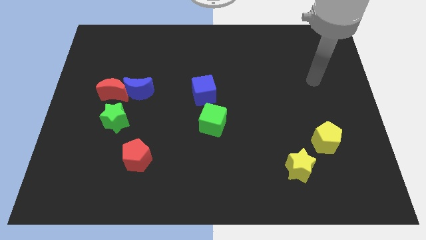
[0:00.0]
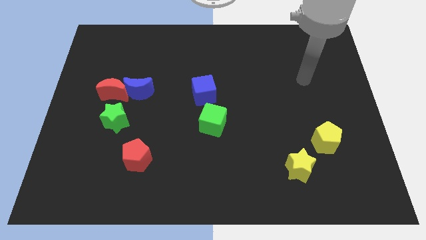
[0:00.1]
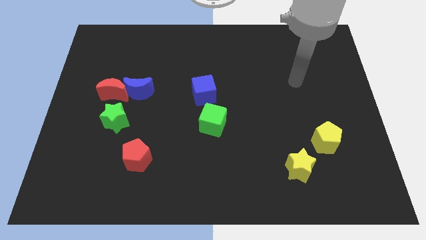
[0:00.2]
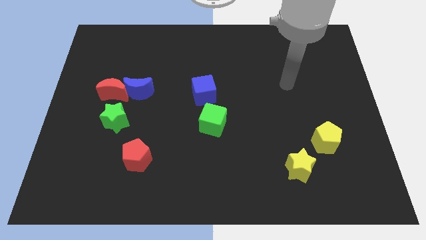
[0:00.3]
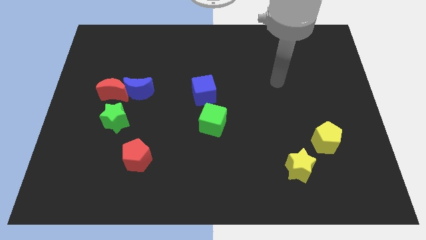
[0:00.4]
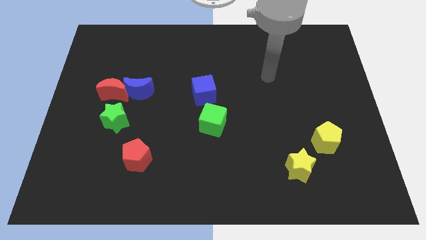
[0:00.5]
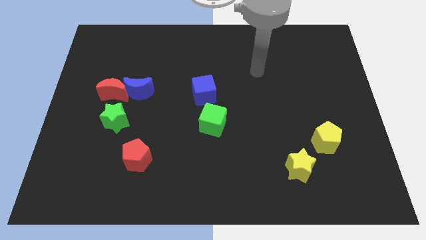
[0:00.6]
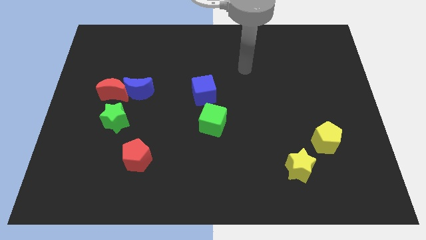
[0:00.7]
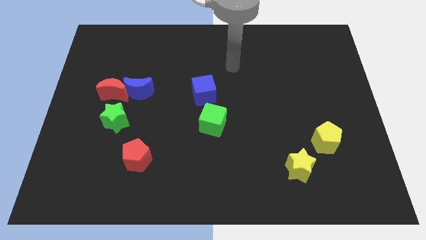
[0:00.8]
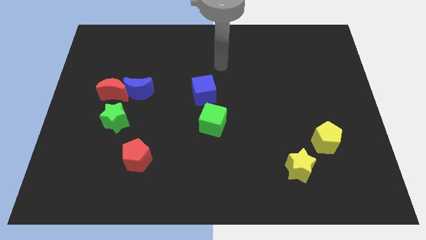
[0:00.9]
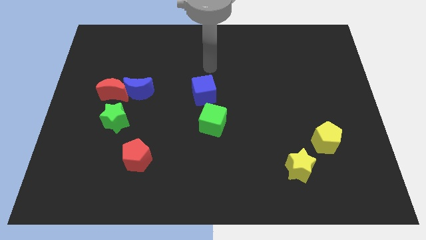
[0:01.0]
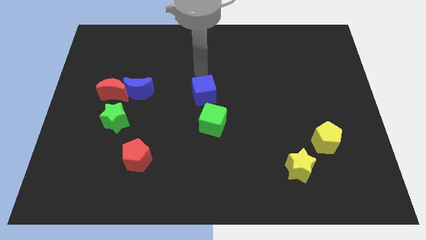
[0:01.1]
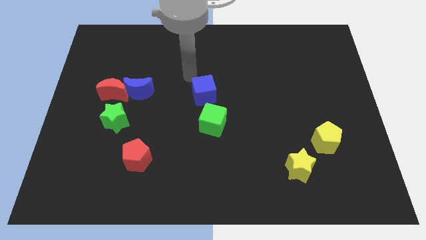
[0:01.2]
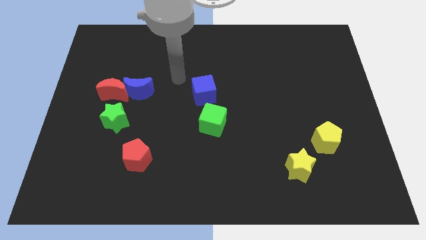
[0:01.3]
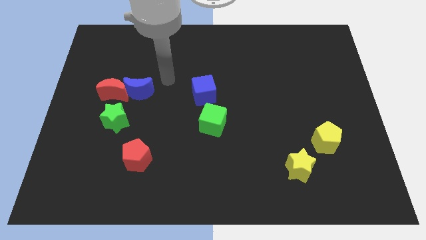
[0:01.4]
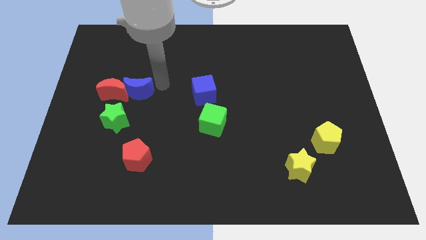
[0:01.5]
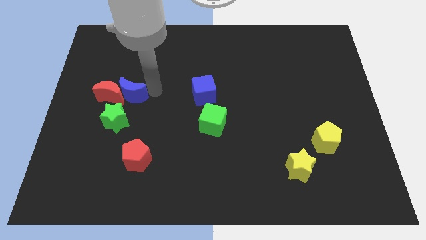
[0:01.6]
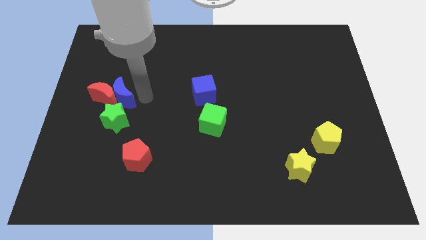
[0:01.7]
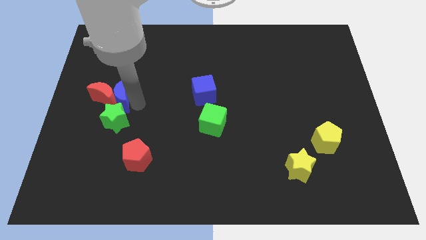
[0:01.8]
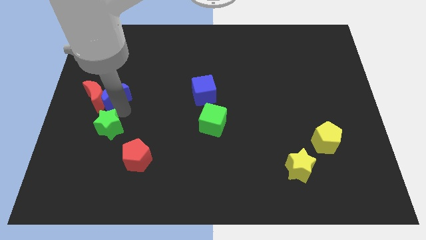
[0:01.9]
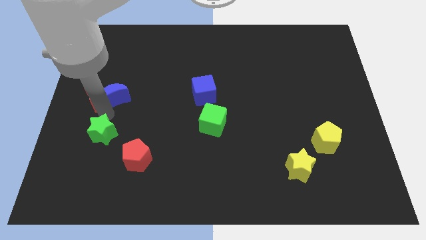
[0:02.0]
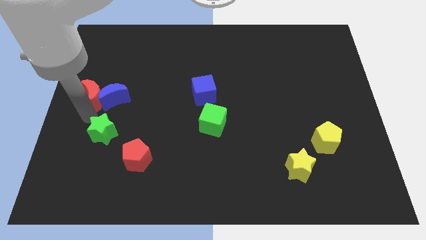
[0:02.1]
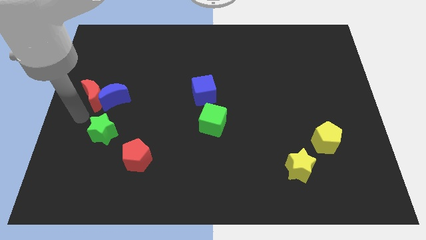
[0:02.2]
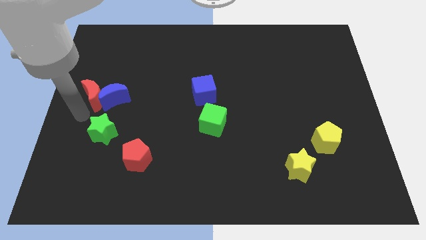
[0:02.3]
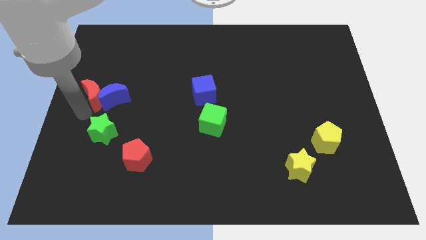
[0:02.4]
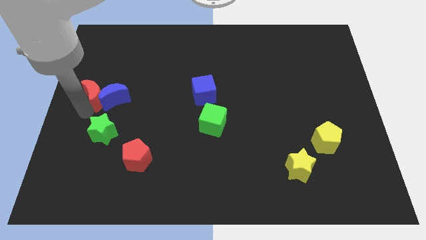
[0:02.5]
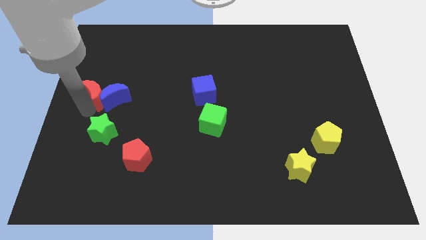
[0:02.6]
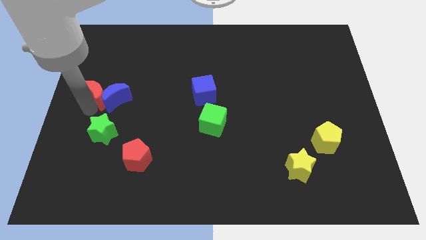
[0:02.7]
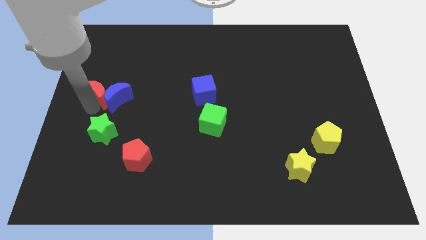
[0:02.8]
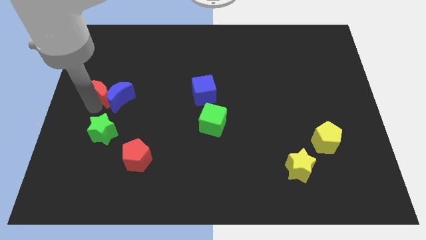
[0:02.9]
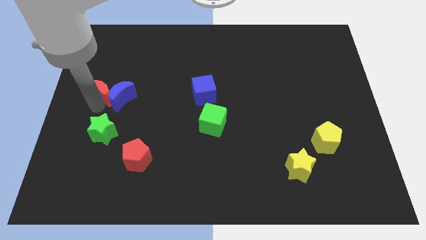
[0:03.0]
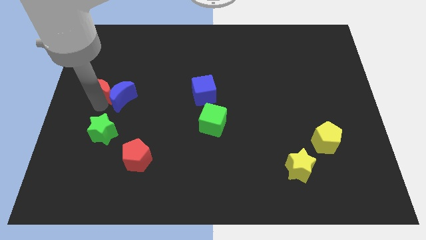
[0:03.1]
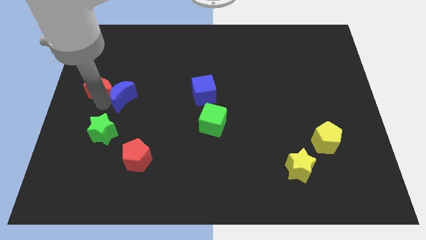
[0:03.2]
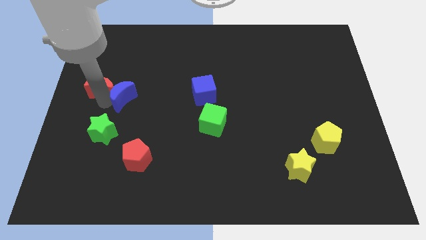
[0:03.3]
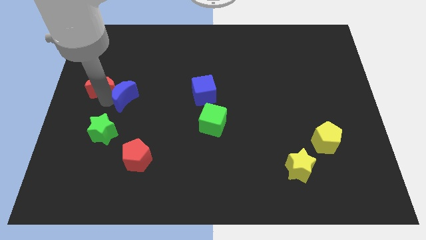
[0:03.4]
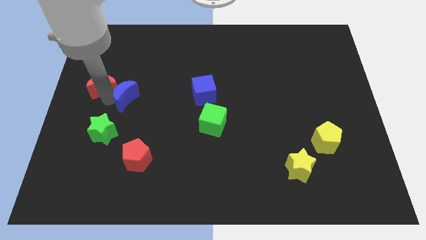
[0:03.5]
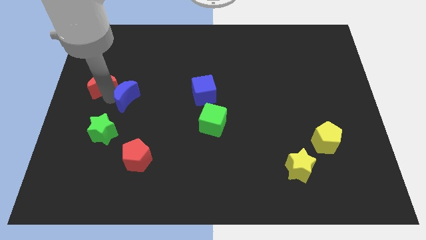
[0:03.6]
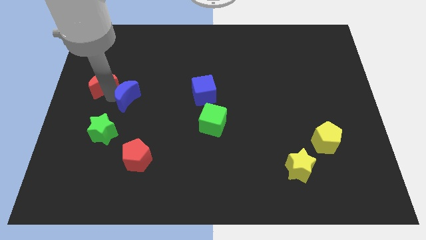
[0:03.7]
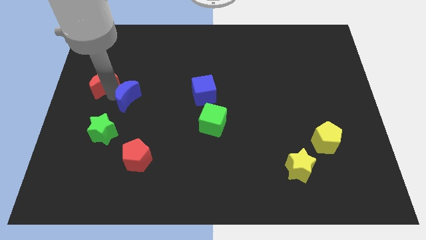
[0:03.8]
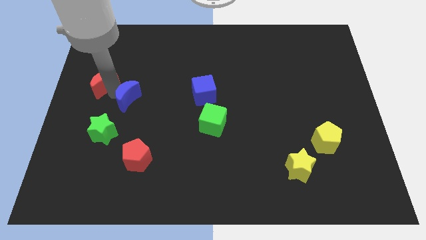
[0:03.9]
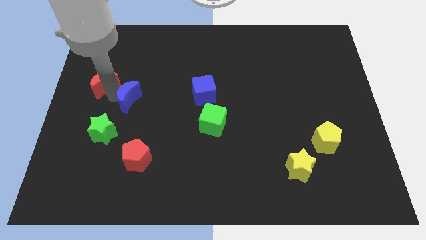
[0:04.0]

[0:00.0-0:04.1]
separate the red moon from the blue moon and green star

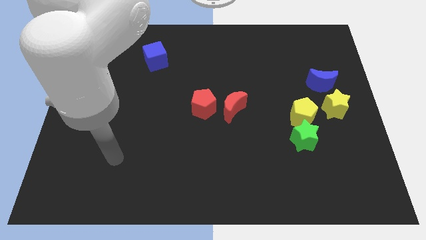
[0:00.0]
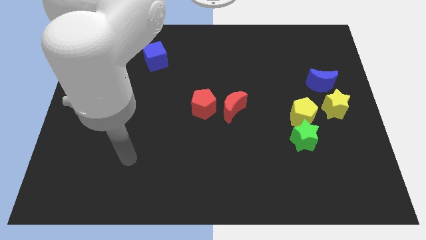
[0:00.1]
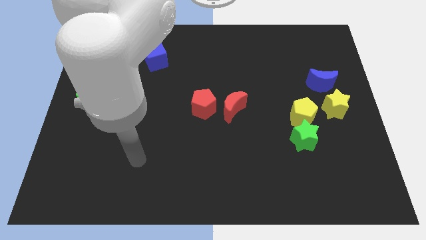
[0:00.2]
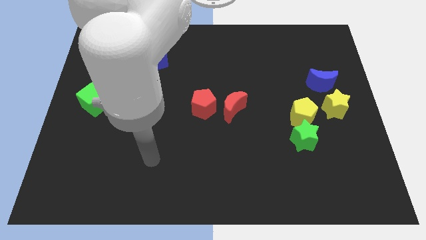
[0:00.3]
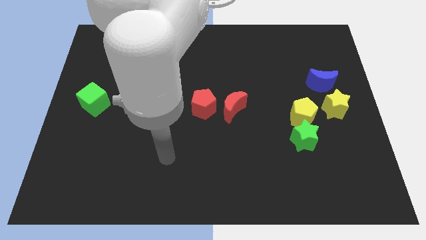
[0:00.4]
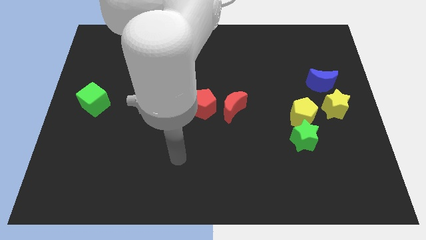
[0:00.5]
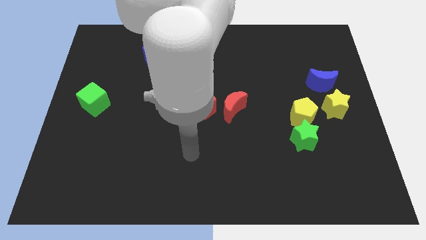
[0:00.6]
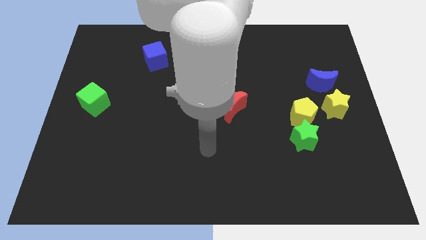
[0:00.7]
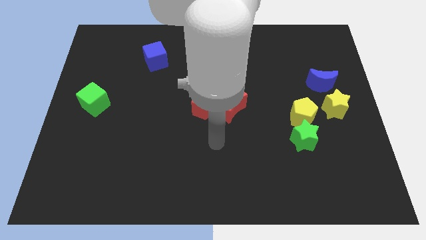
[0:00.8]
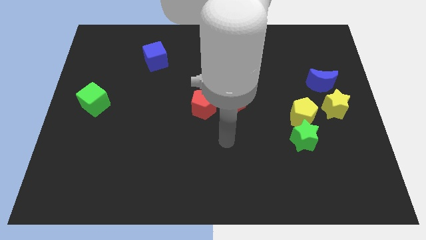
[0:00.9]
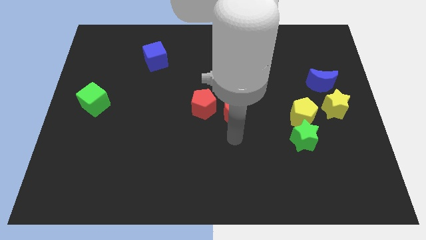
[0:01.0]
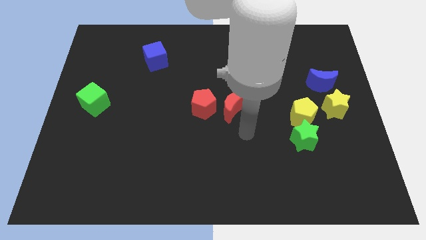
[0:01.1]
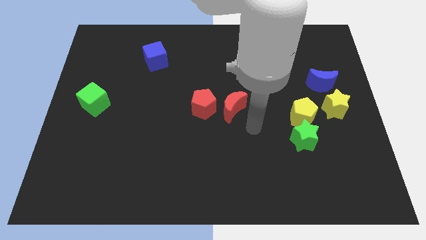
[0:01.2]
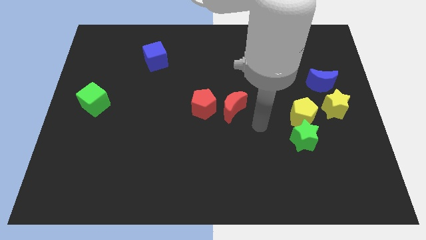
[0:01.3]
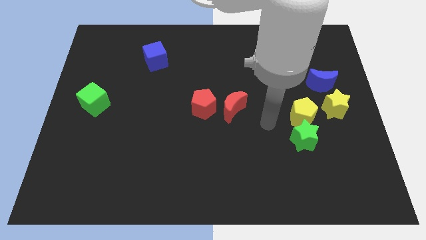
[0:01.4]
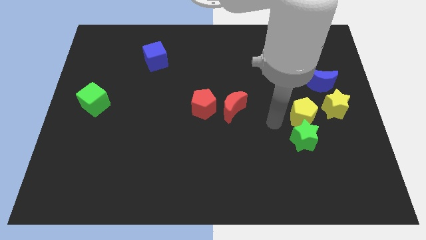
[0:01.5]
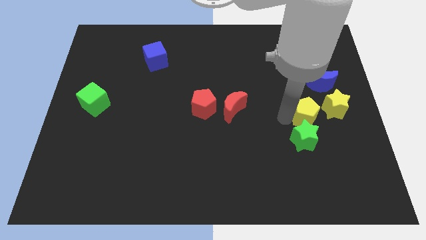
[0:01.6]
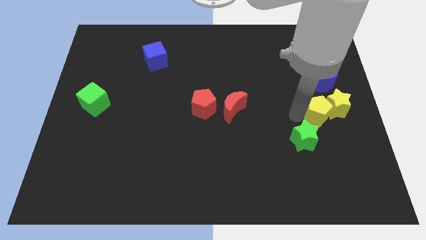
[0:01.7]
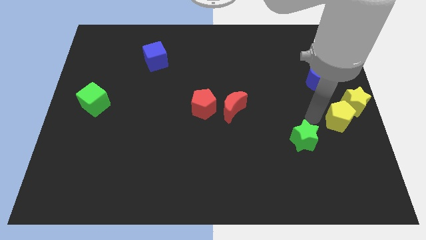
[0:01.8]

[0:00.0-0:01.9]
separate the green star from the yellow pentagon

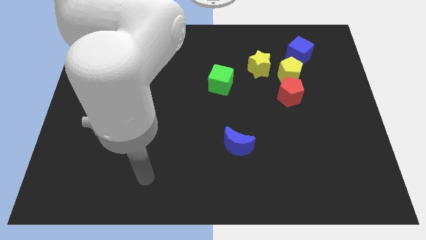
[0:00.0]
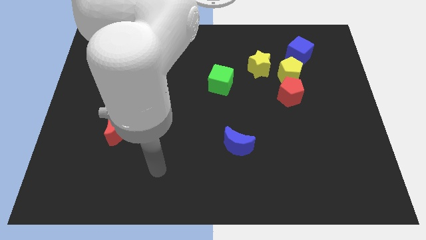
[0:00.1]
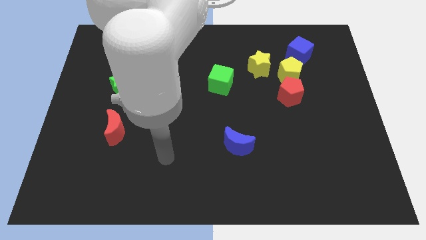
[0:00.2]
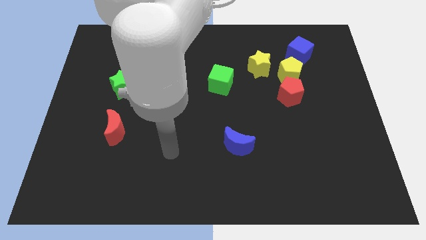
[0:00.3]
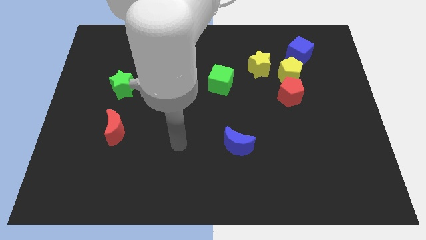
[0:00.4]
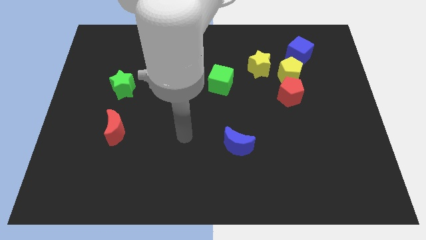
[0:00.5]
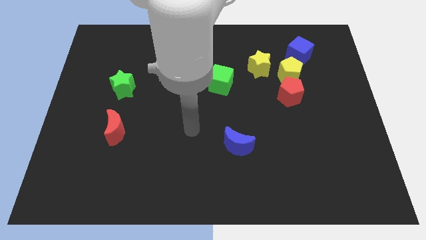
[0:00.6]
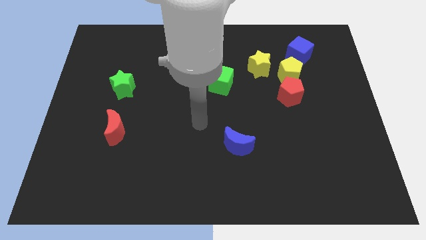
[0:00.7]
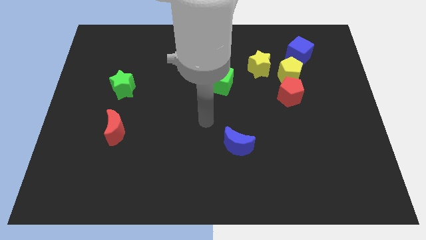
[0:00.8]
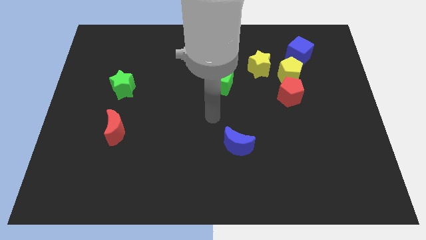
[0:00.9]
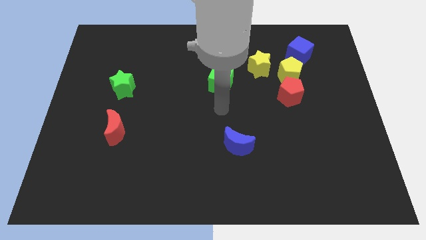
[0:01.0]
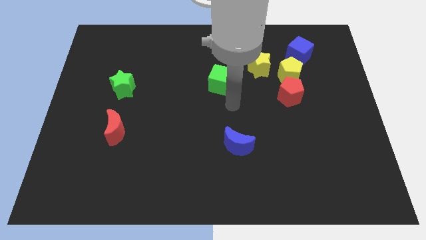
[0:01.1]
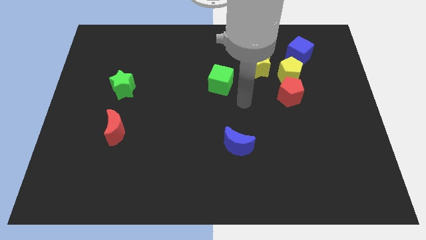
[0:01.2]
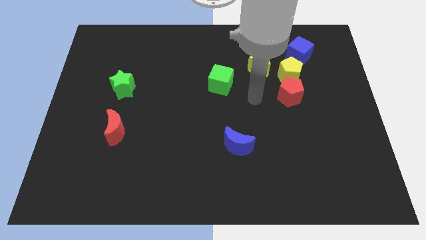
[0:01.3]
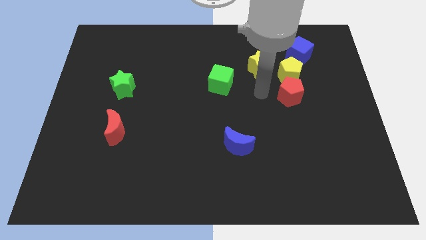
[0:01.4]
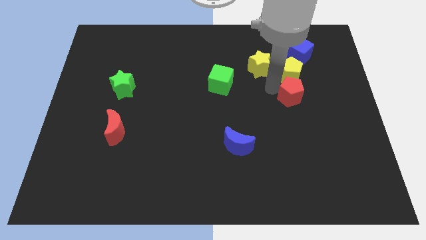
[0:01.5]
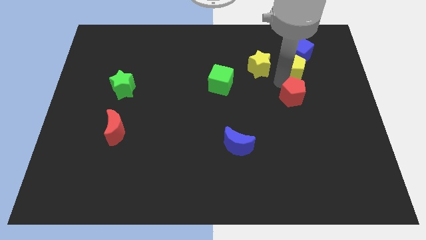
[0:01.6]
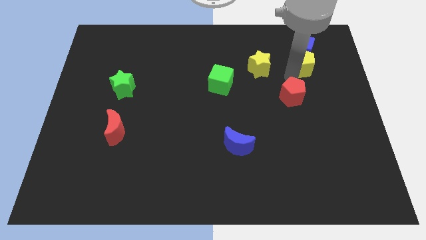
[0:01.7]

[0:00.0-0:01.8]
pull the red pentagon apart from the yellow pentagon

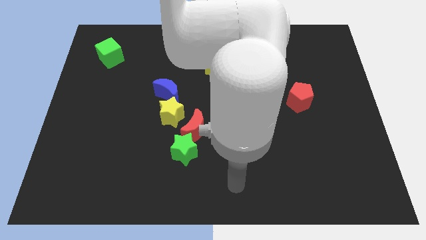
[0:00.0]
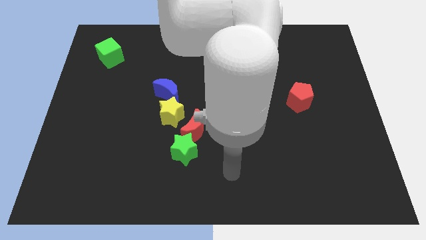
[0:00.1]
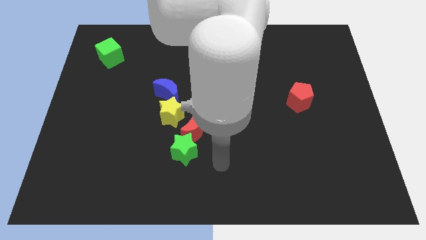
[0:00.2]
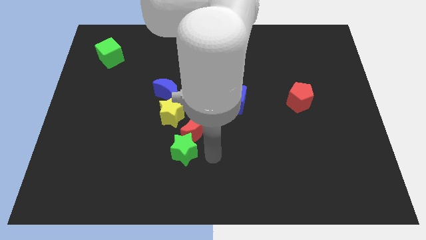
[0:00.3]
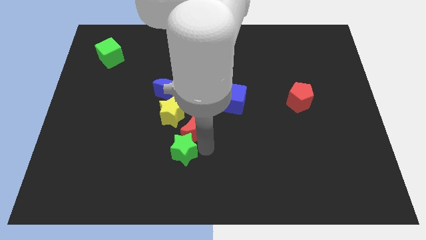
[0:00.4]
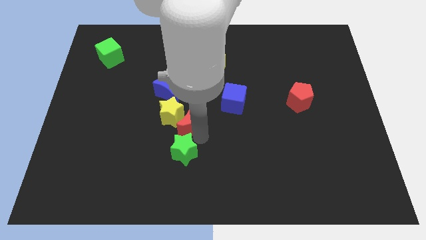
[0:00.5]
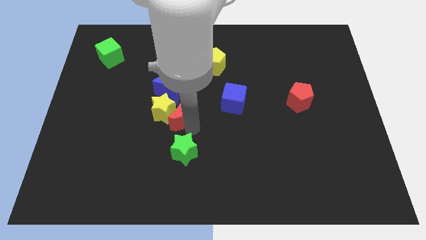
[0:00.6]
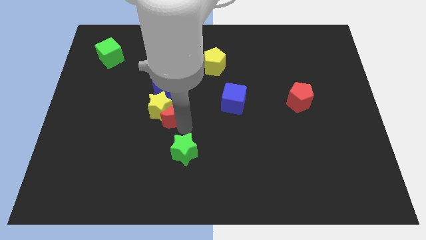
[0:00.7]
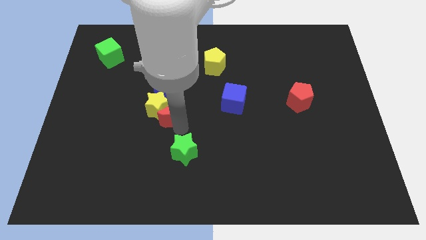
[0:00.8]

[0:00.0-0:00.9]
pull the green star apart from the red moon

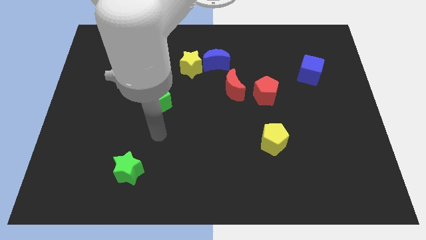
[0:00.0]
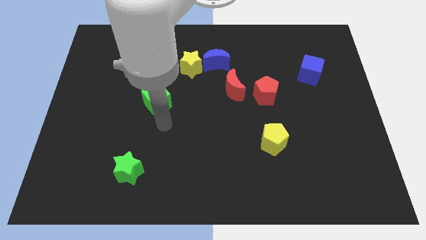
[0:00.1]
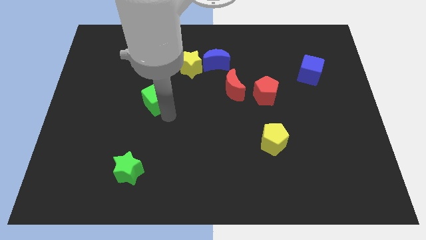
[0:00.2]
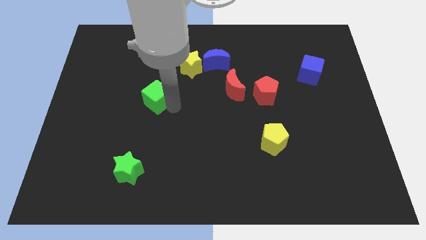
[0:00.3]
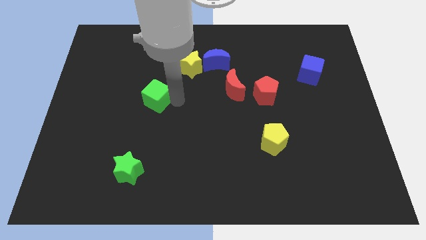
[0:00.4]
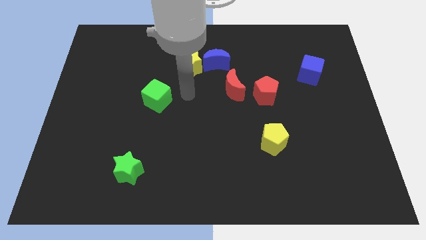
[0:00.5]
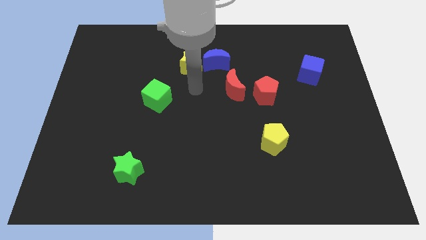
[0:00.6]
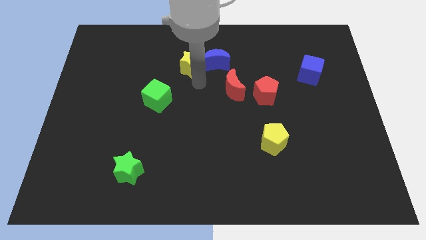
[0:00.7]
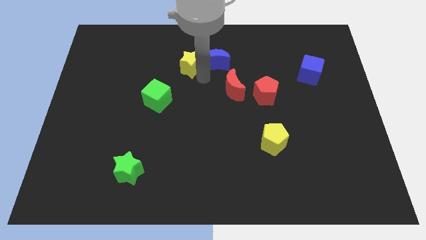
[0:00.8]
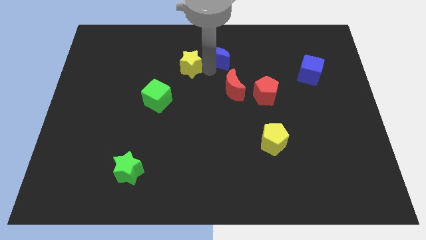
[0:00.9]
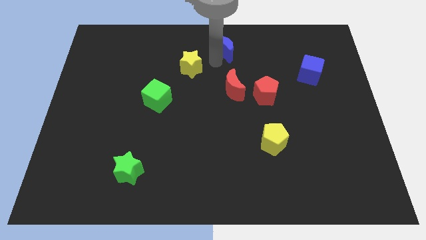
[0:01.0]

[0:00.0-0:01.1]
move the yellow star away from the blue moon
